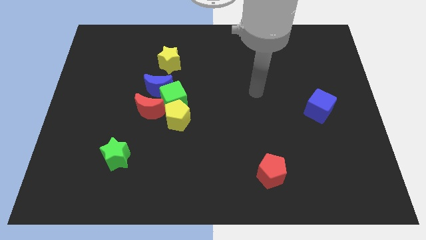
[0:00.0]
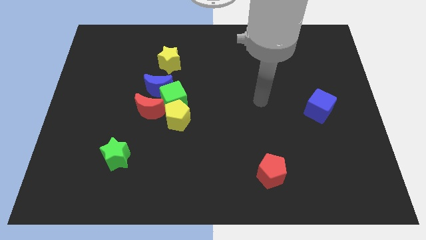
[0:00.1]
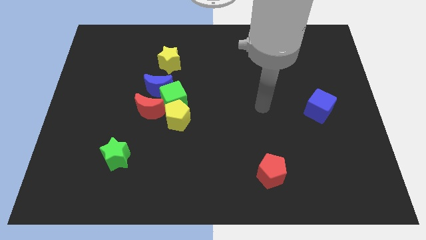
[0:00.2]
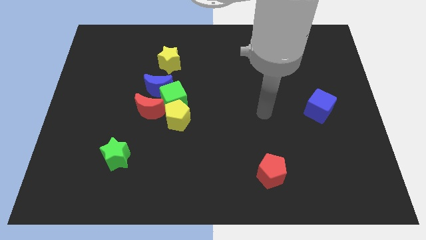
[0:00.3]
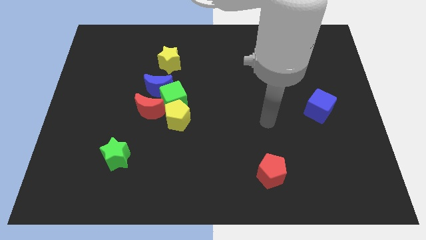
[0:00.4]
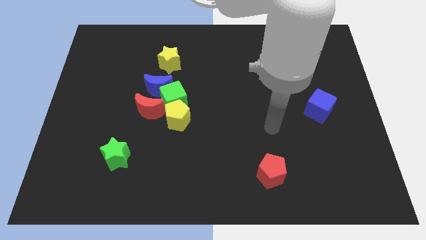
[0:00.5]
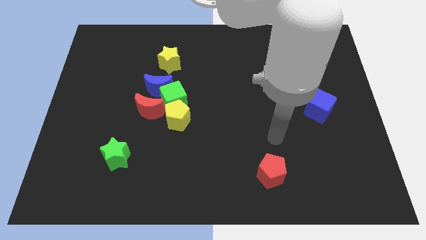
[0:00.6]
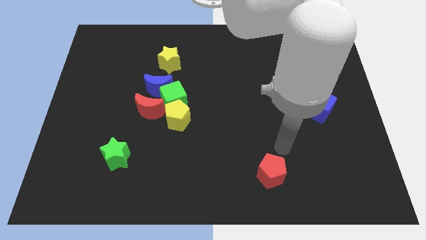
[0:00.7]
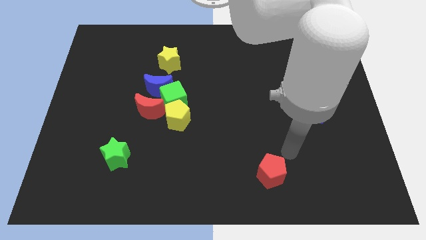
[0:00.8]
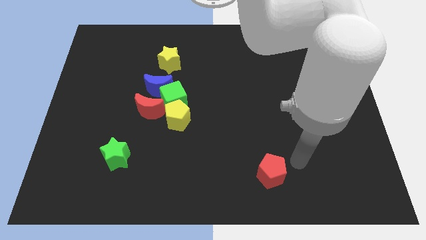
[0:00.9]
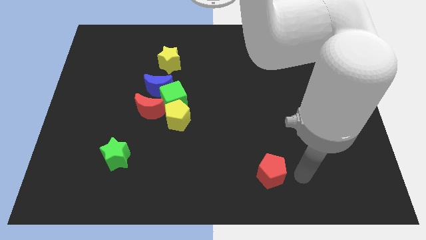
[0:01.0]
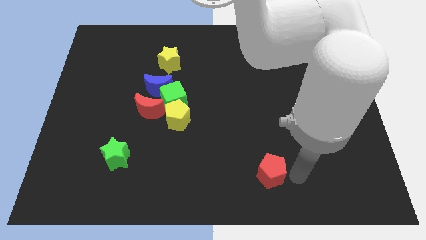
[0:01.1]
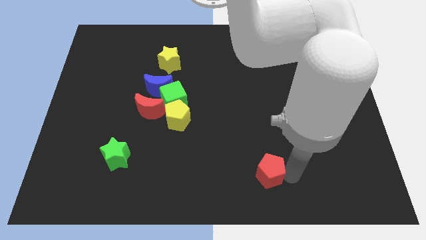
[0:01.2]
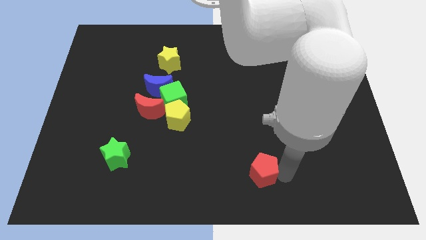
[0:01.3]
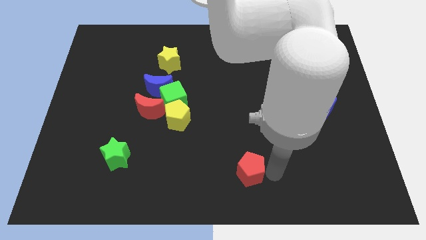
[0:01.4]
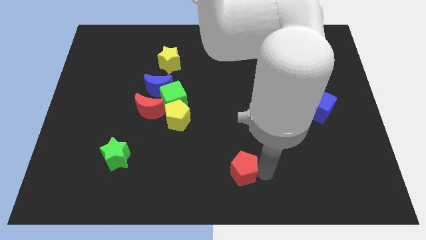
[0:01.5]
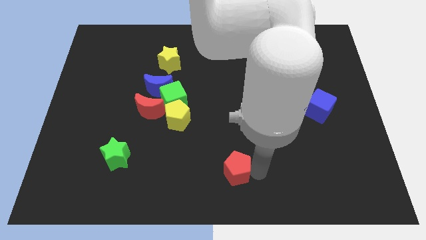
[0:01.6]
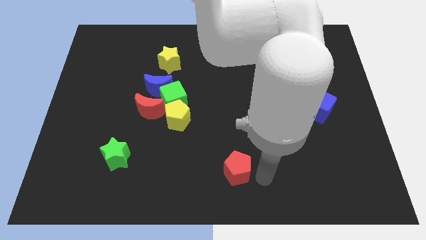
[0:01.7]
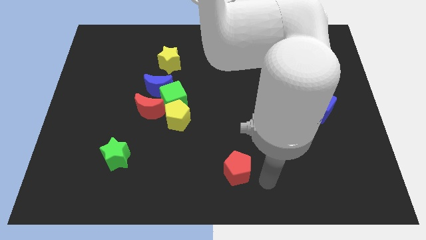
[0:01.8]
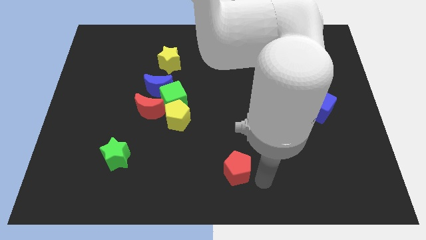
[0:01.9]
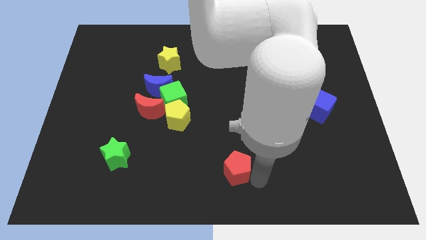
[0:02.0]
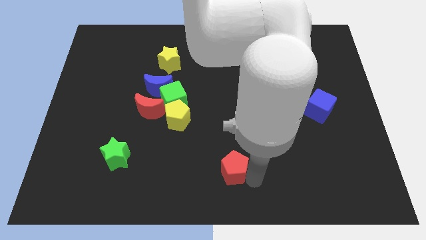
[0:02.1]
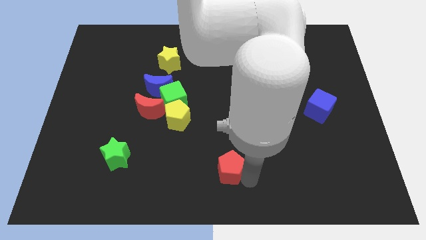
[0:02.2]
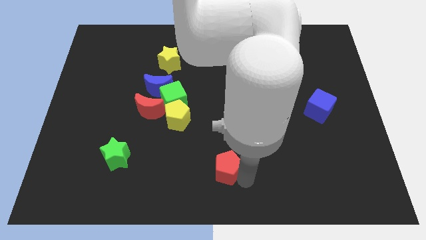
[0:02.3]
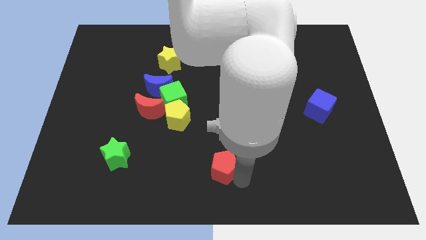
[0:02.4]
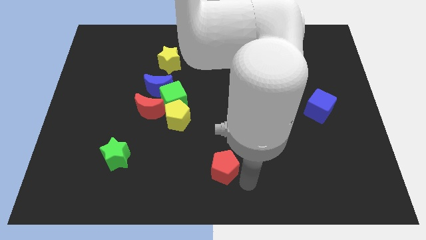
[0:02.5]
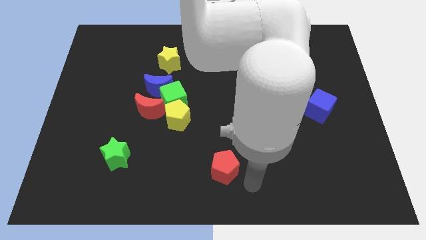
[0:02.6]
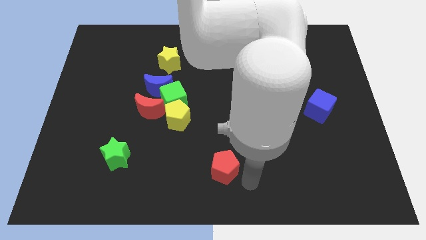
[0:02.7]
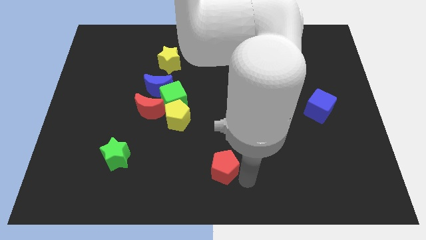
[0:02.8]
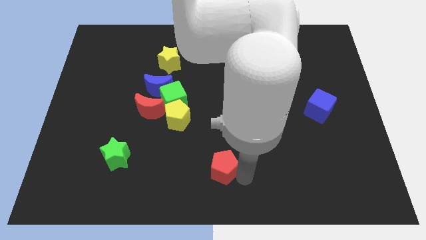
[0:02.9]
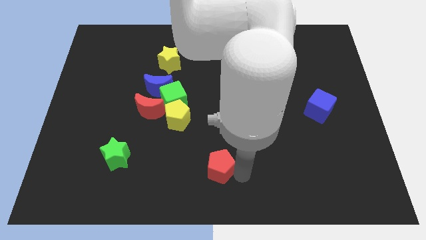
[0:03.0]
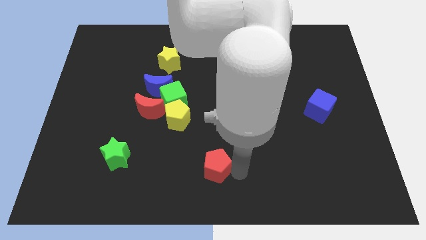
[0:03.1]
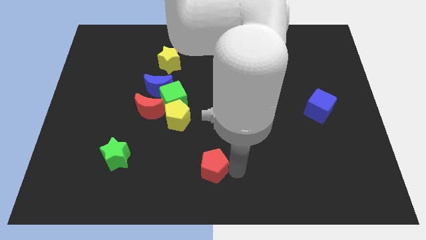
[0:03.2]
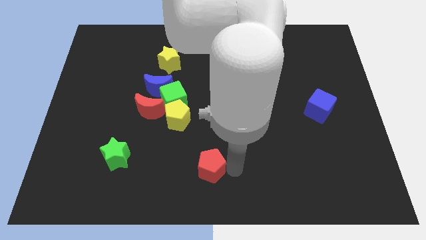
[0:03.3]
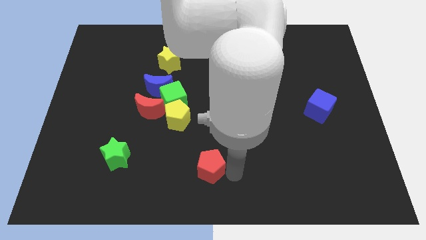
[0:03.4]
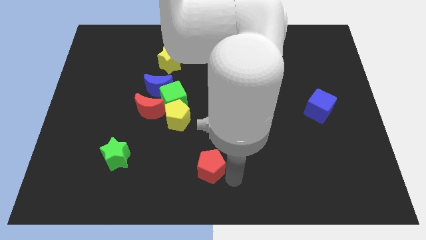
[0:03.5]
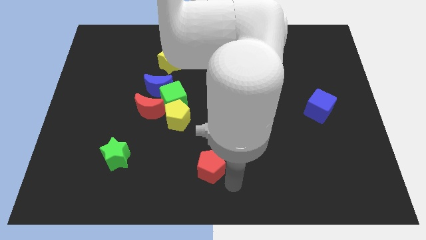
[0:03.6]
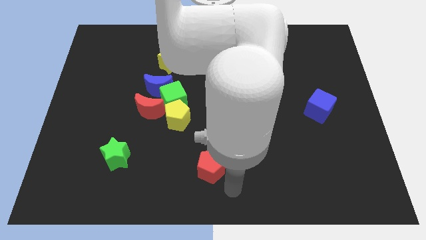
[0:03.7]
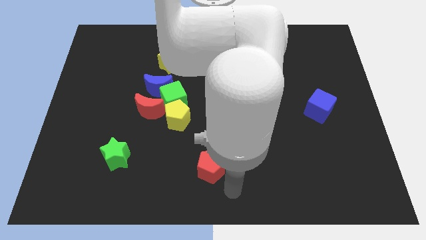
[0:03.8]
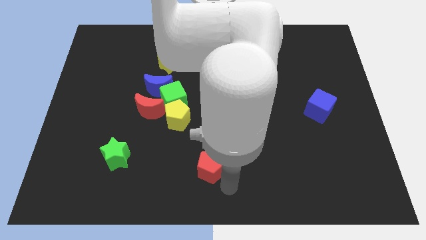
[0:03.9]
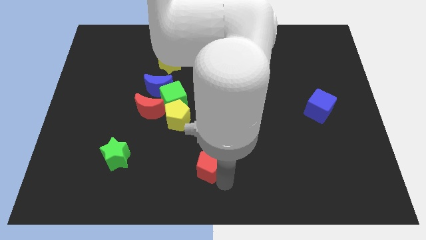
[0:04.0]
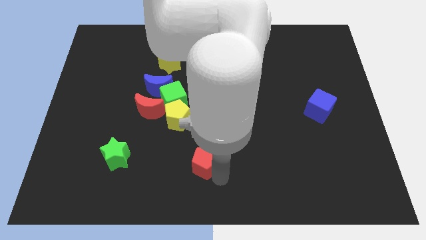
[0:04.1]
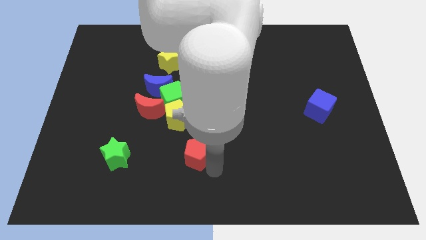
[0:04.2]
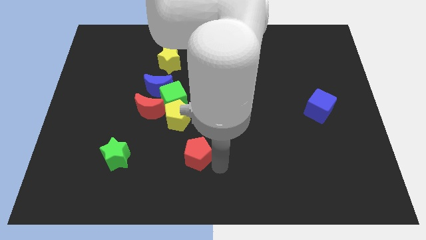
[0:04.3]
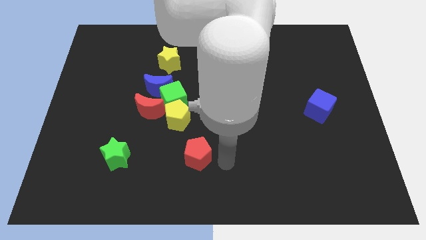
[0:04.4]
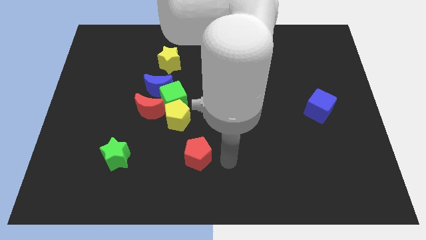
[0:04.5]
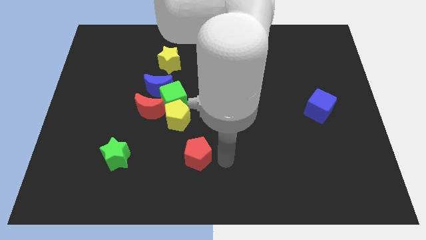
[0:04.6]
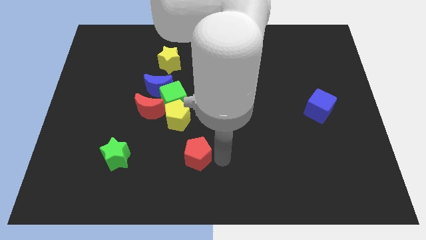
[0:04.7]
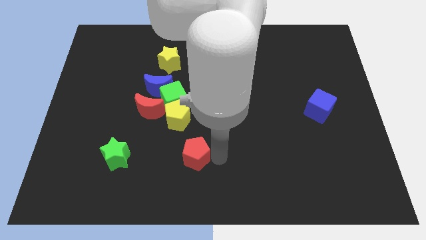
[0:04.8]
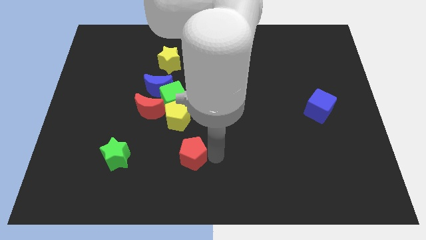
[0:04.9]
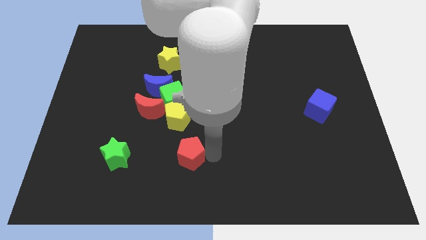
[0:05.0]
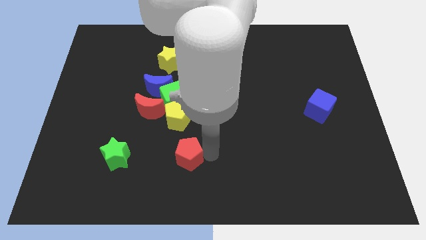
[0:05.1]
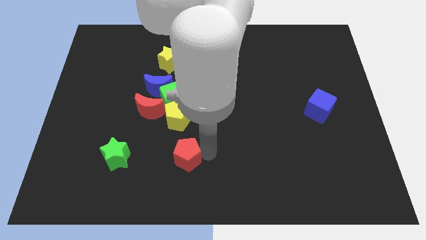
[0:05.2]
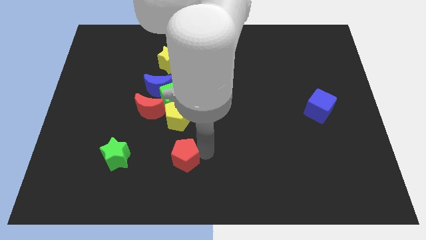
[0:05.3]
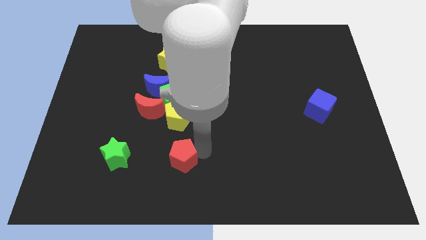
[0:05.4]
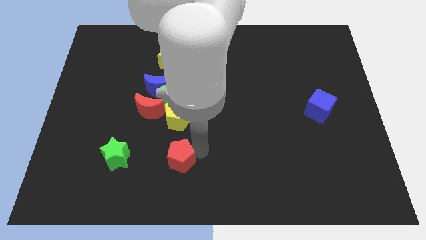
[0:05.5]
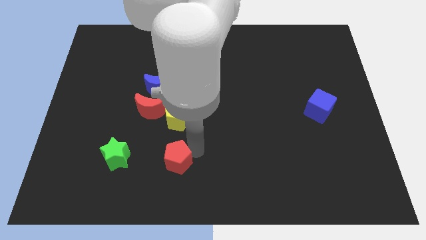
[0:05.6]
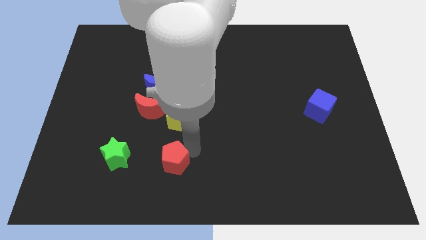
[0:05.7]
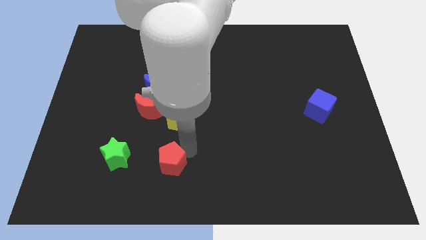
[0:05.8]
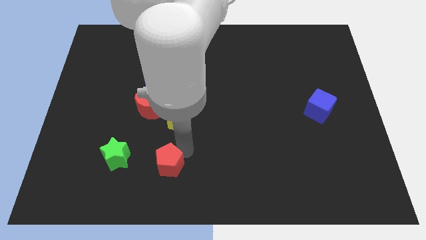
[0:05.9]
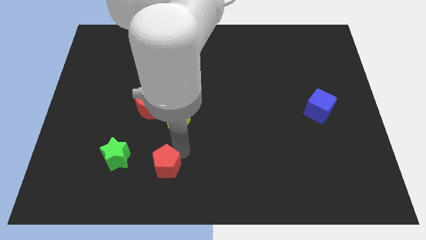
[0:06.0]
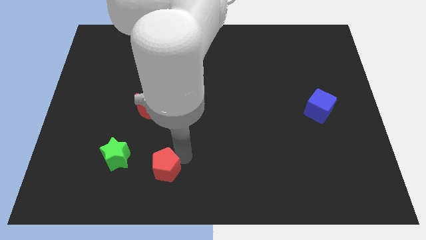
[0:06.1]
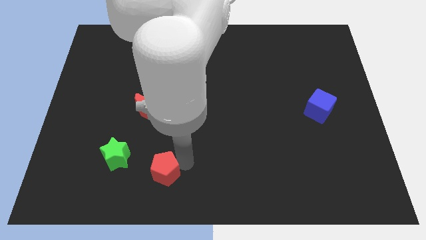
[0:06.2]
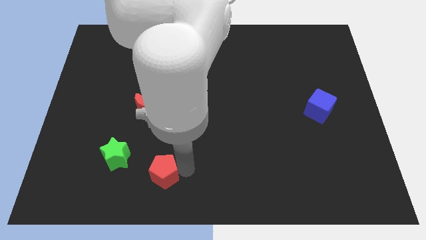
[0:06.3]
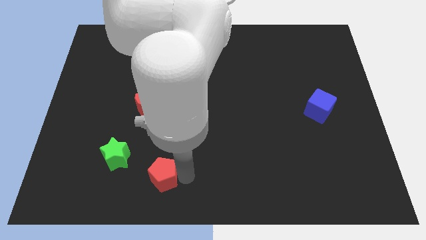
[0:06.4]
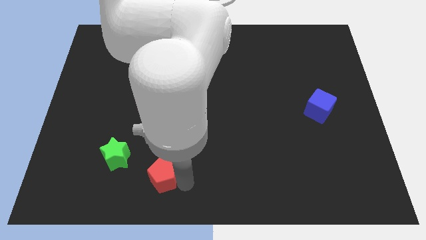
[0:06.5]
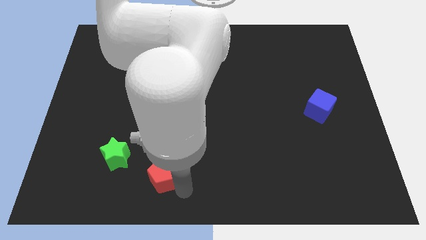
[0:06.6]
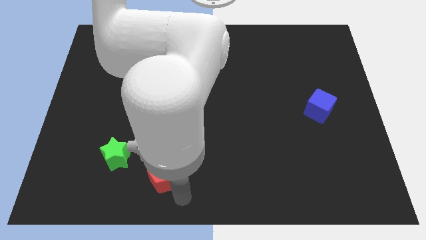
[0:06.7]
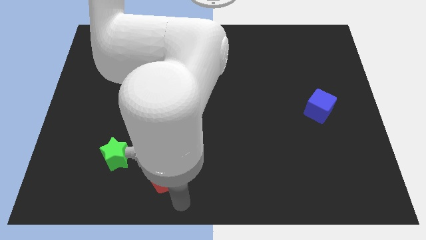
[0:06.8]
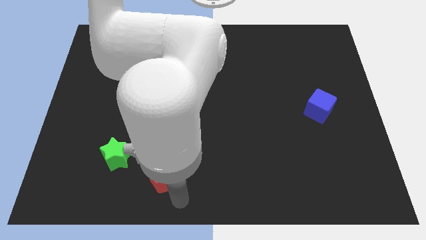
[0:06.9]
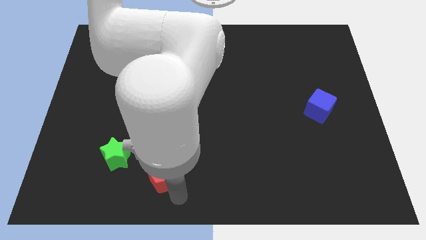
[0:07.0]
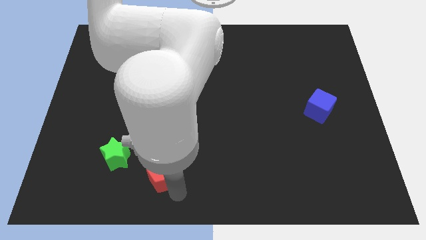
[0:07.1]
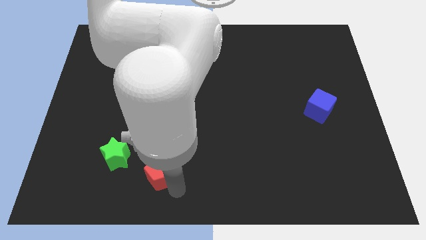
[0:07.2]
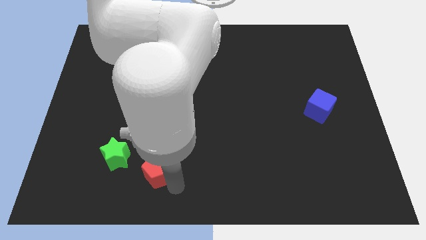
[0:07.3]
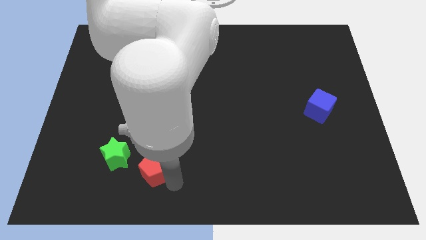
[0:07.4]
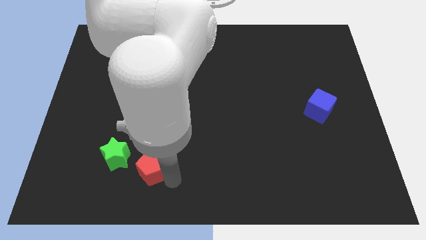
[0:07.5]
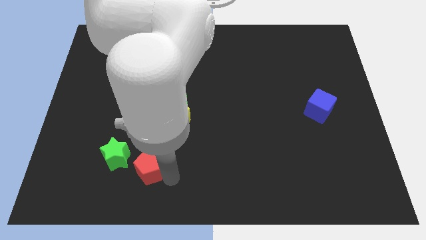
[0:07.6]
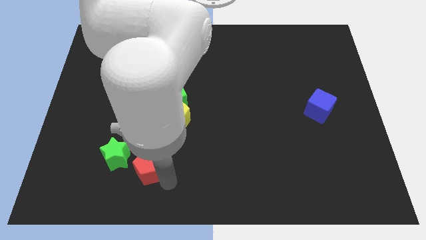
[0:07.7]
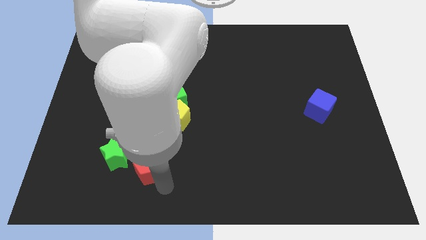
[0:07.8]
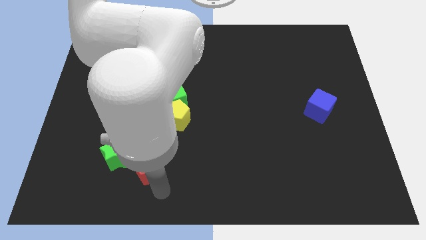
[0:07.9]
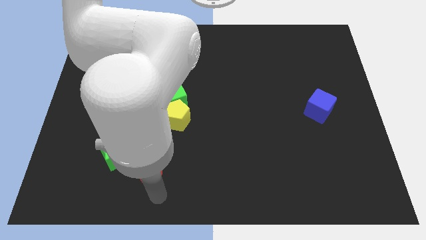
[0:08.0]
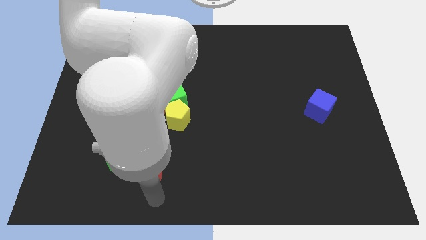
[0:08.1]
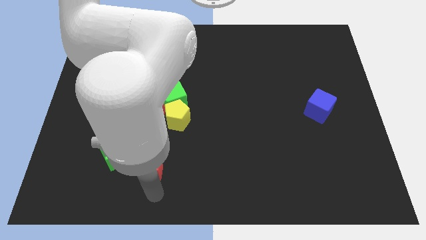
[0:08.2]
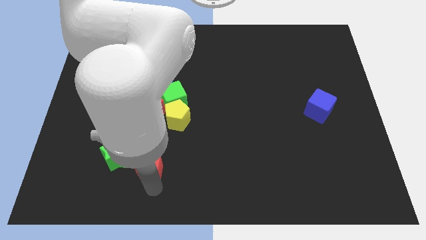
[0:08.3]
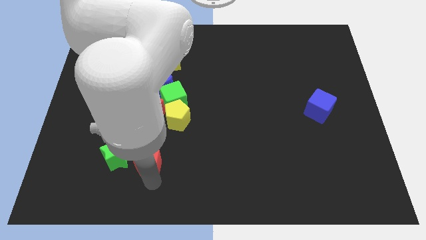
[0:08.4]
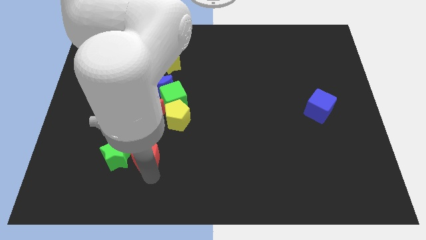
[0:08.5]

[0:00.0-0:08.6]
slide the red pentagon towards the green star
